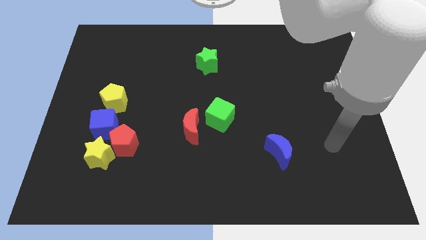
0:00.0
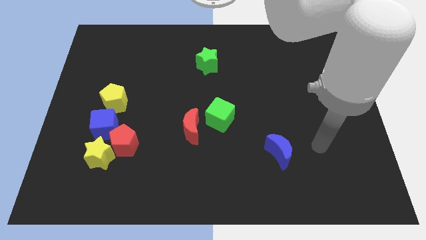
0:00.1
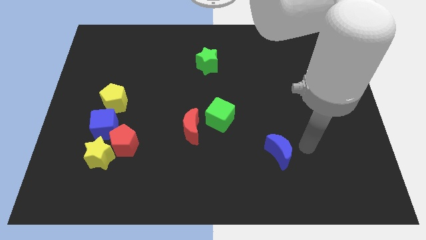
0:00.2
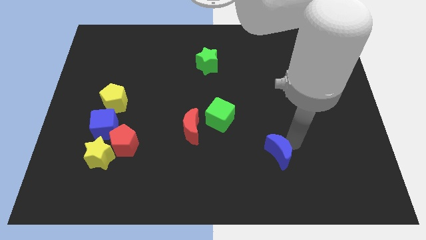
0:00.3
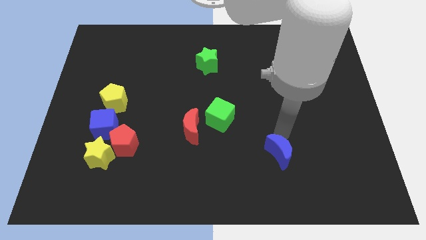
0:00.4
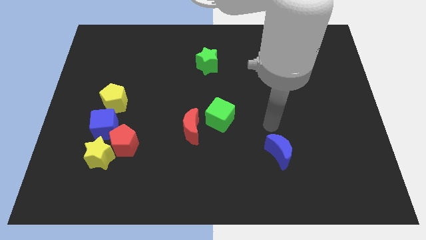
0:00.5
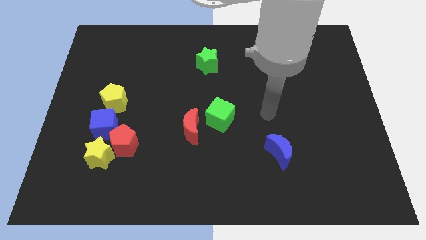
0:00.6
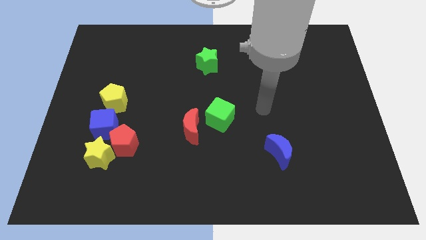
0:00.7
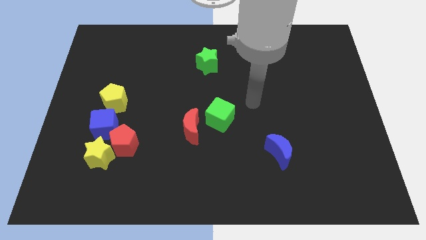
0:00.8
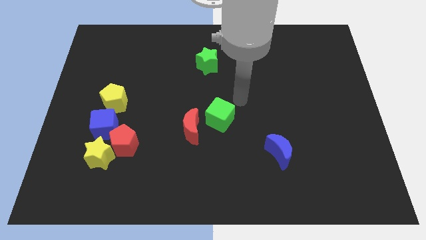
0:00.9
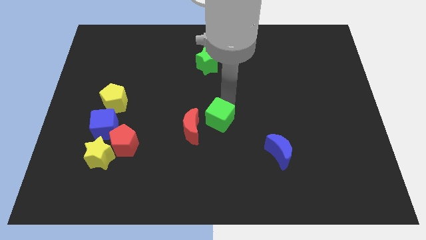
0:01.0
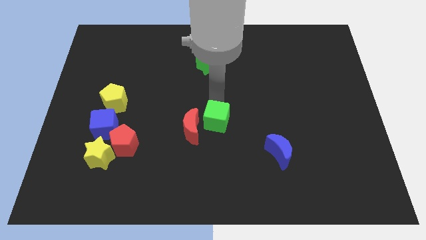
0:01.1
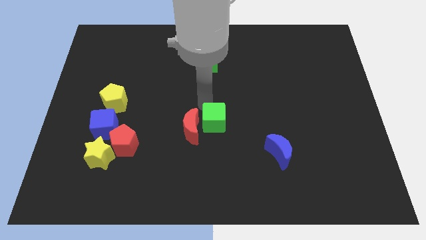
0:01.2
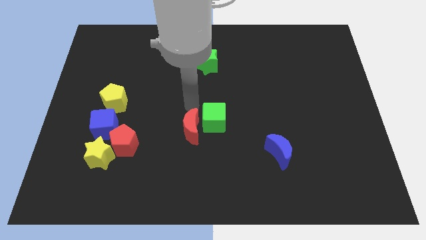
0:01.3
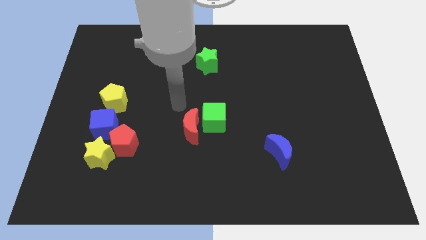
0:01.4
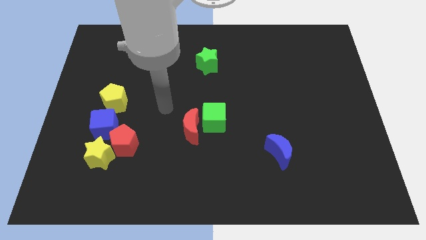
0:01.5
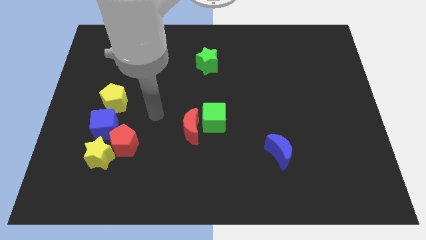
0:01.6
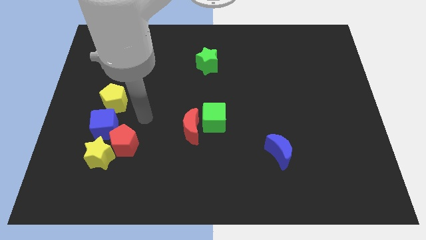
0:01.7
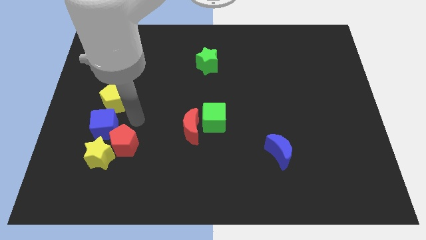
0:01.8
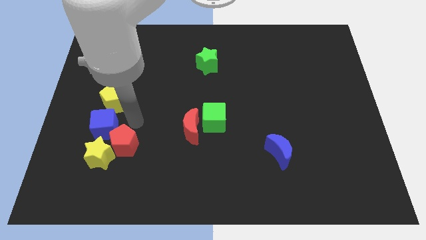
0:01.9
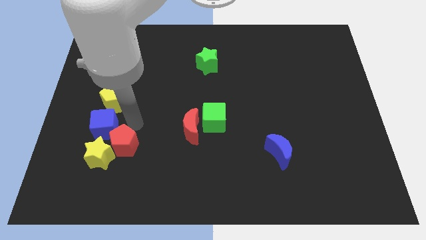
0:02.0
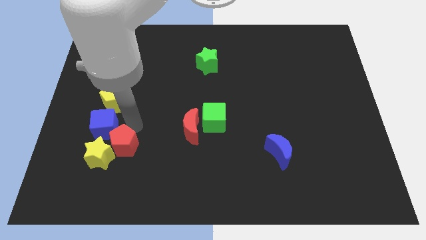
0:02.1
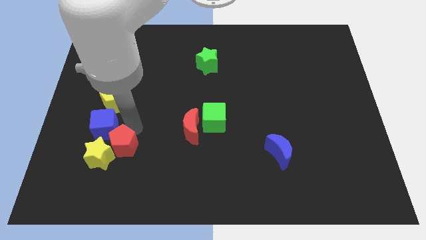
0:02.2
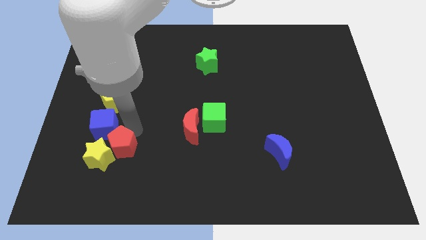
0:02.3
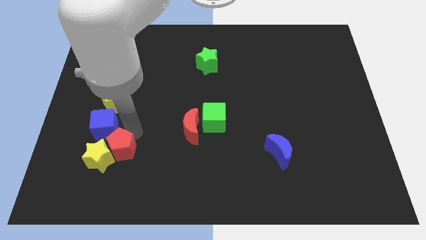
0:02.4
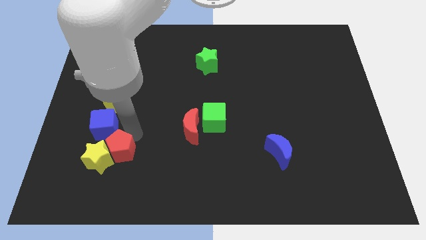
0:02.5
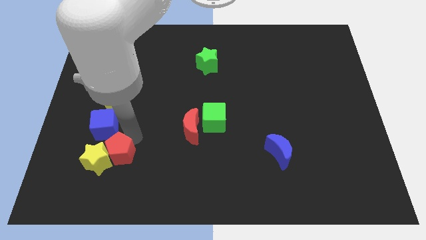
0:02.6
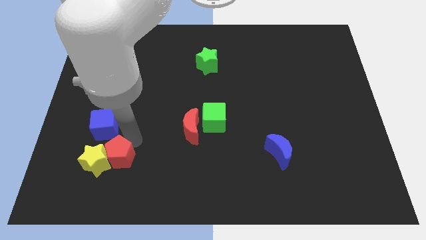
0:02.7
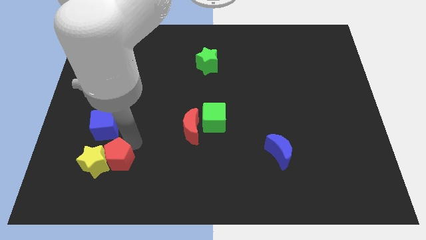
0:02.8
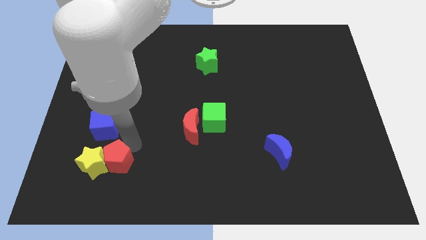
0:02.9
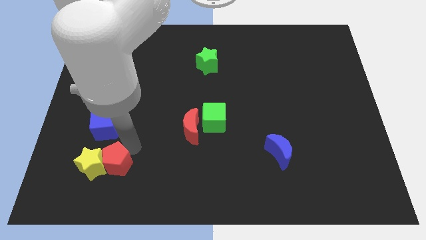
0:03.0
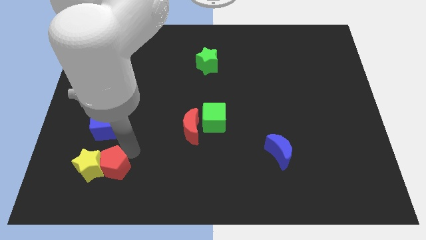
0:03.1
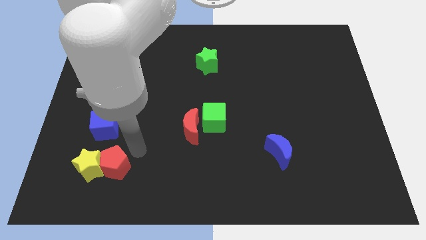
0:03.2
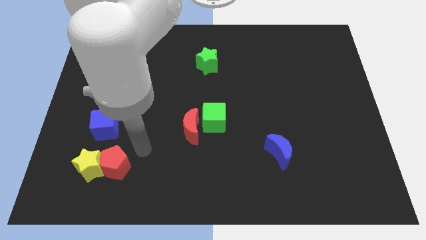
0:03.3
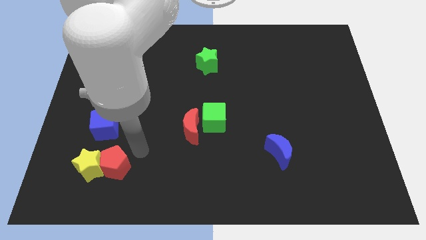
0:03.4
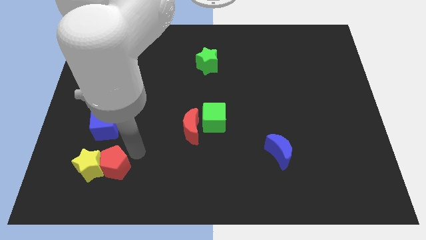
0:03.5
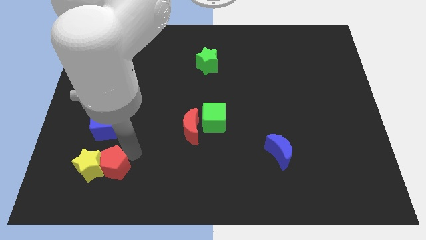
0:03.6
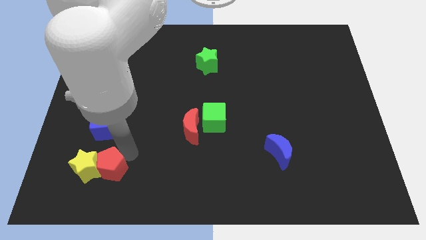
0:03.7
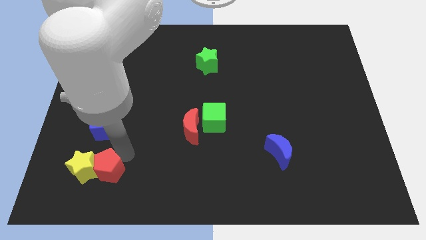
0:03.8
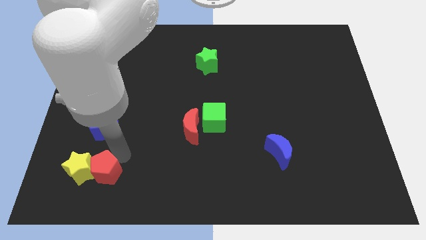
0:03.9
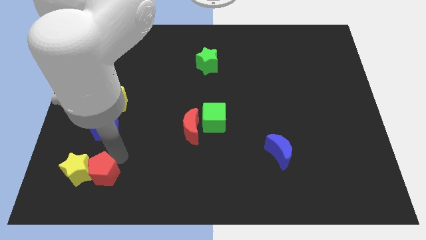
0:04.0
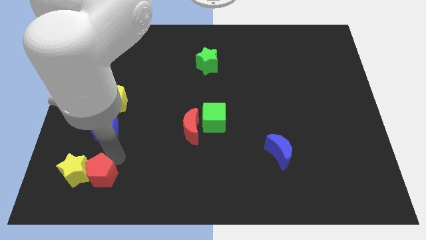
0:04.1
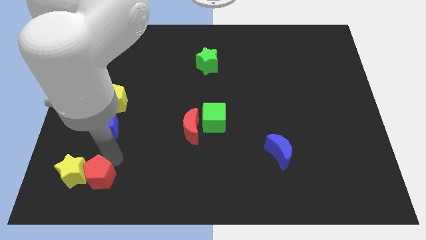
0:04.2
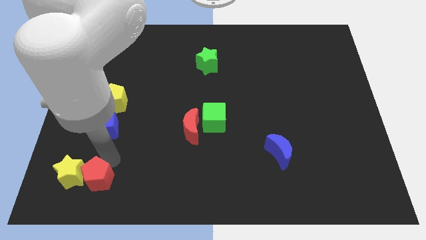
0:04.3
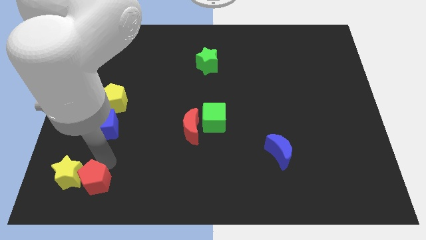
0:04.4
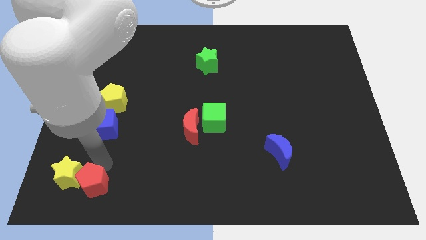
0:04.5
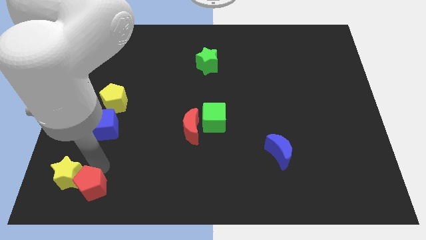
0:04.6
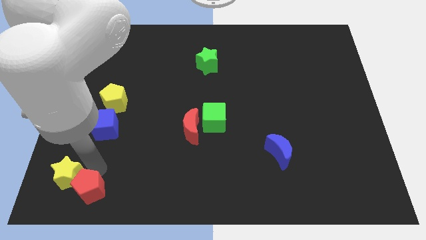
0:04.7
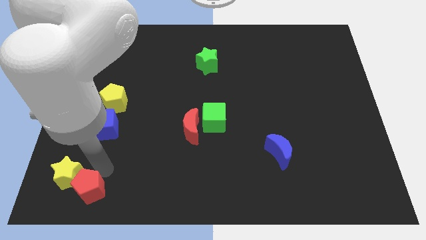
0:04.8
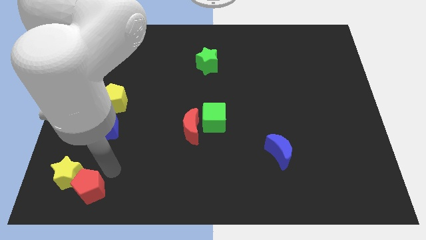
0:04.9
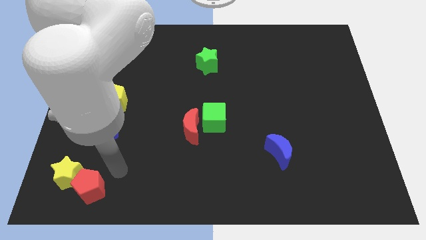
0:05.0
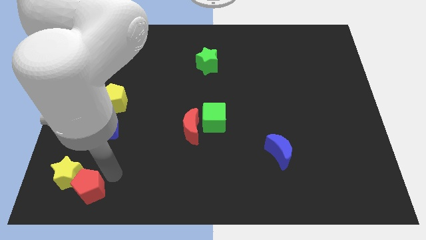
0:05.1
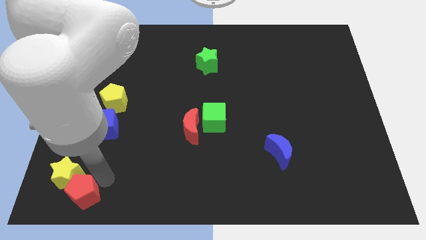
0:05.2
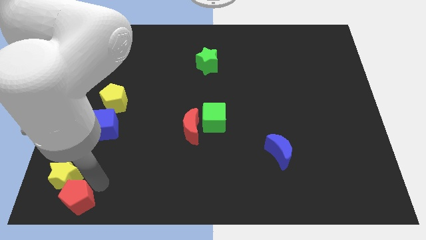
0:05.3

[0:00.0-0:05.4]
move the red pentagon to the bottom left

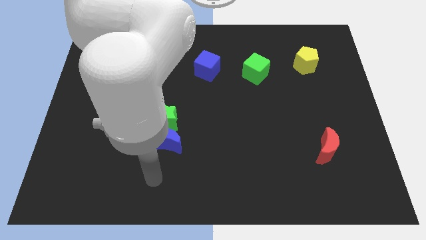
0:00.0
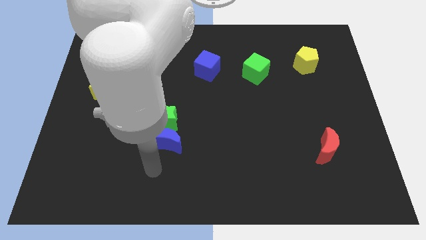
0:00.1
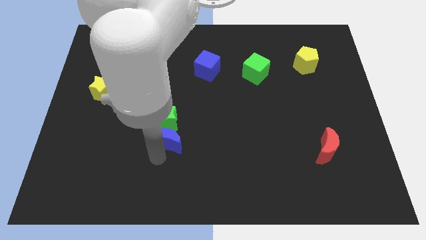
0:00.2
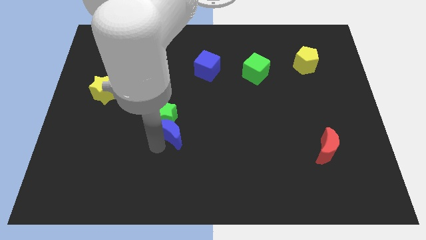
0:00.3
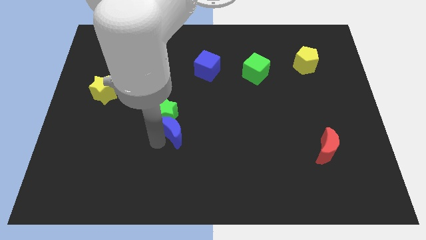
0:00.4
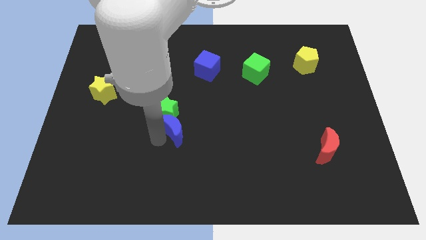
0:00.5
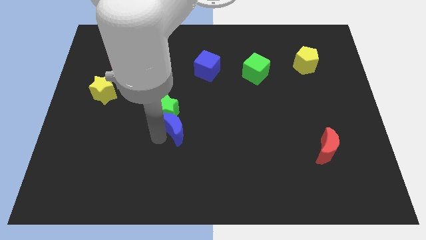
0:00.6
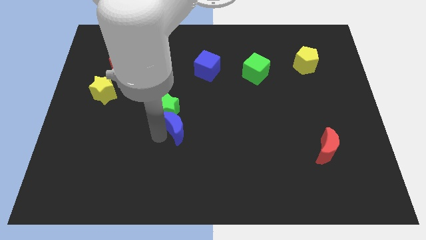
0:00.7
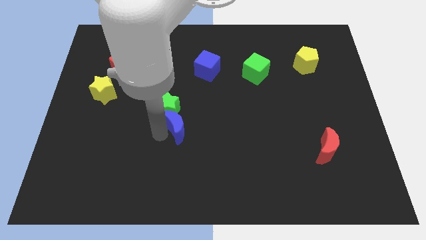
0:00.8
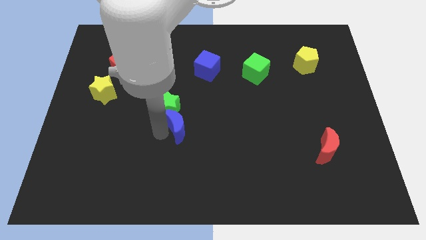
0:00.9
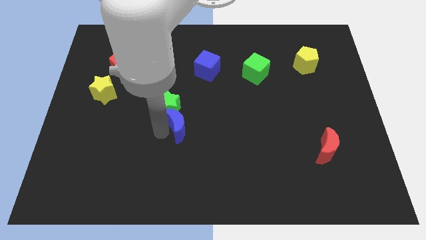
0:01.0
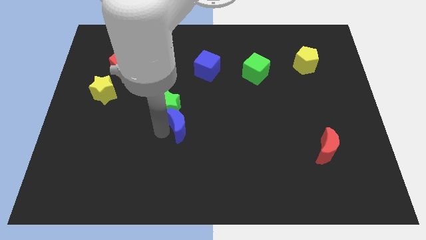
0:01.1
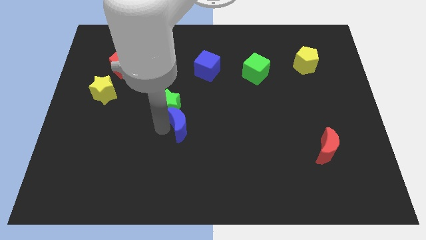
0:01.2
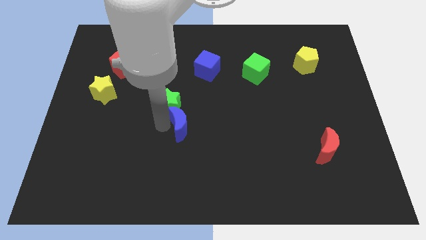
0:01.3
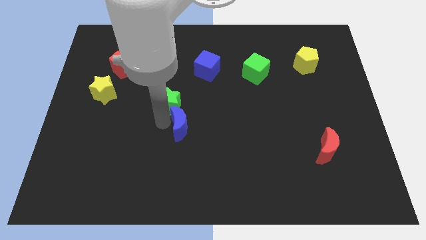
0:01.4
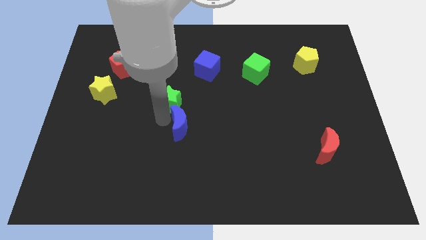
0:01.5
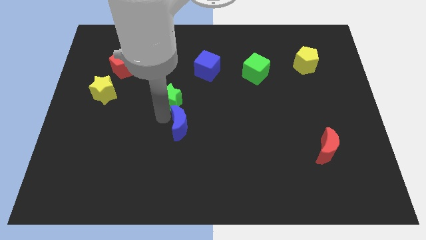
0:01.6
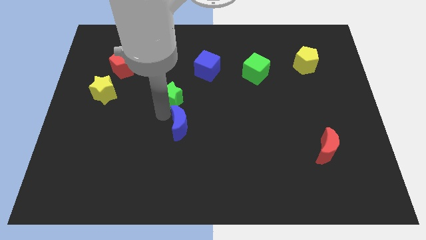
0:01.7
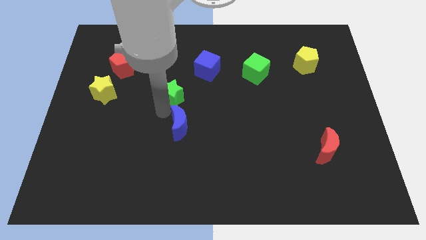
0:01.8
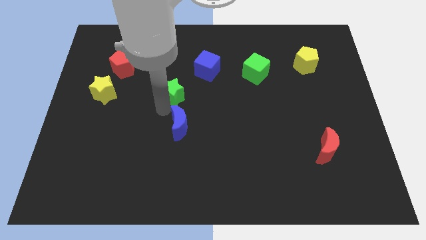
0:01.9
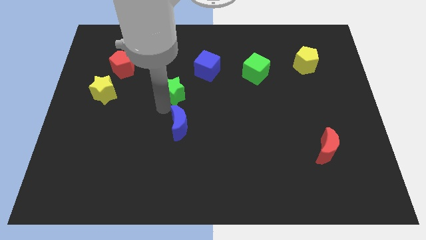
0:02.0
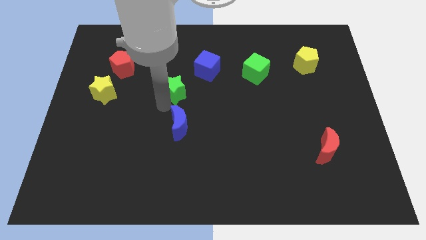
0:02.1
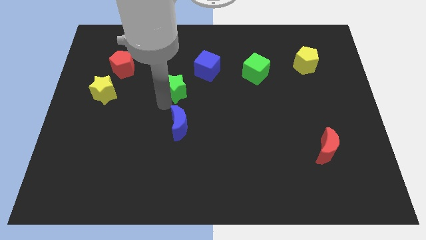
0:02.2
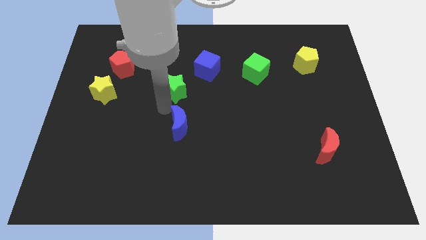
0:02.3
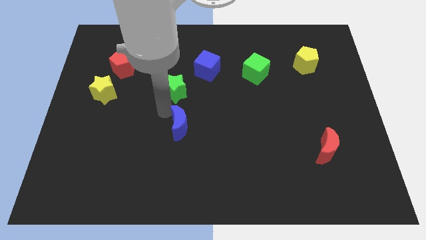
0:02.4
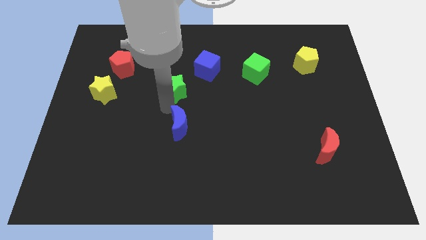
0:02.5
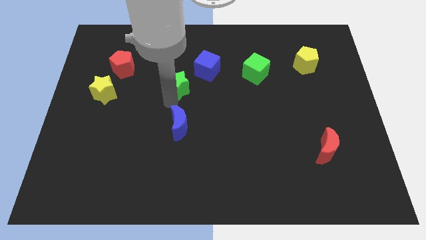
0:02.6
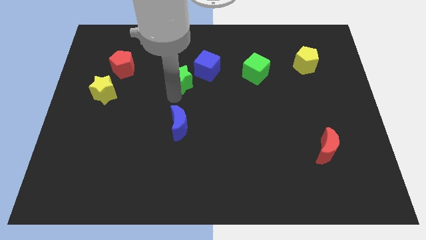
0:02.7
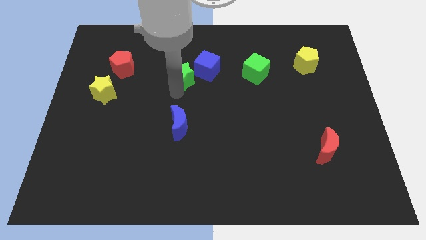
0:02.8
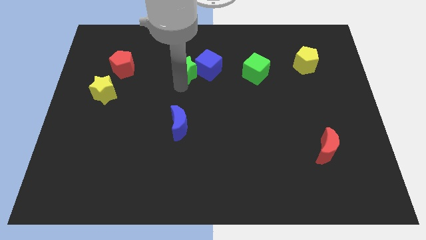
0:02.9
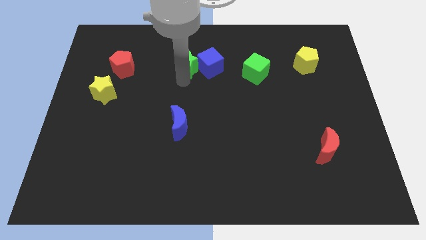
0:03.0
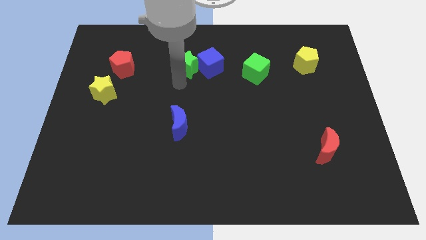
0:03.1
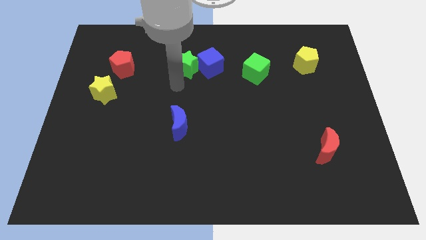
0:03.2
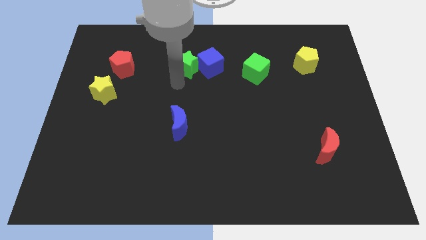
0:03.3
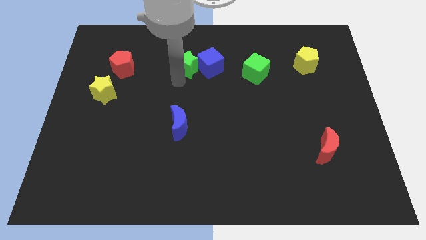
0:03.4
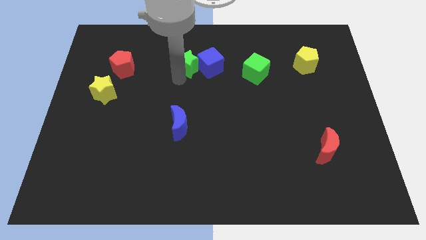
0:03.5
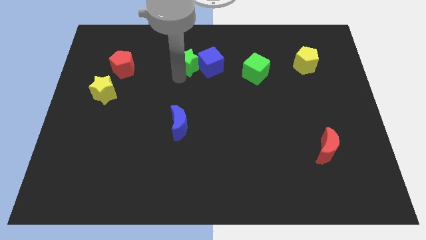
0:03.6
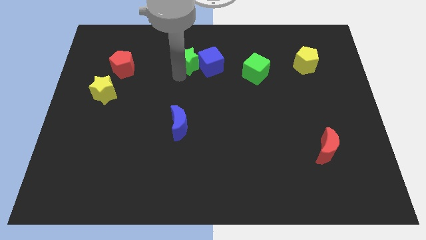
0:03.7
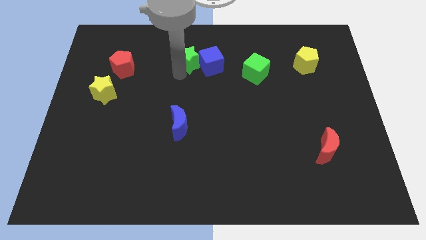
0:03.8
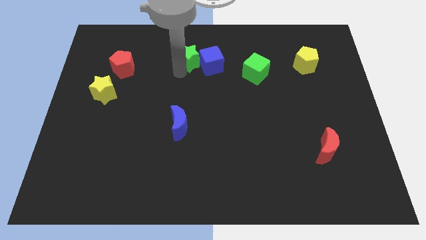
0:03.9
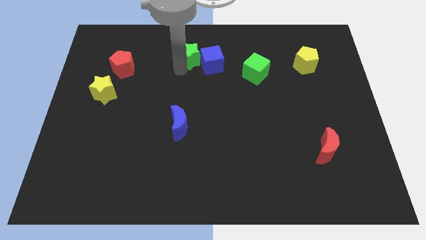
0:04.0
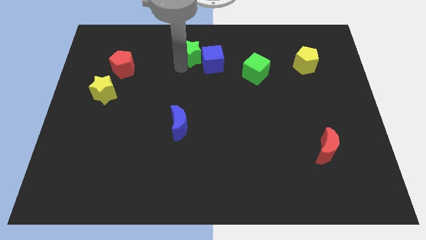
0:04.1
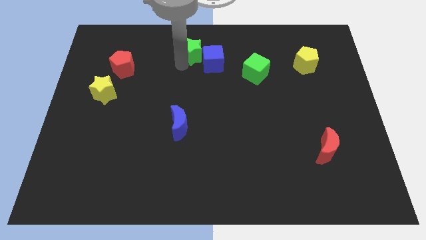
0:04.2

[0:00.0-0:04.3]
move the green star to the top side
